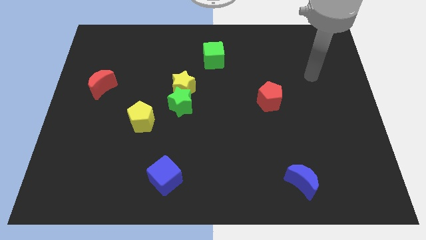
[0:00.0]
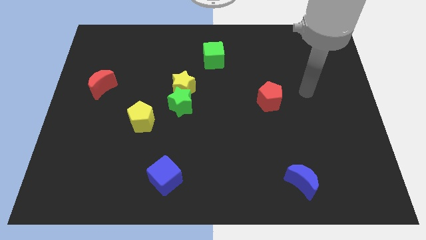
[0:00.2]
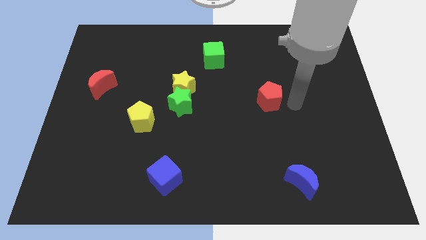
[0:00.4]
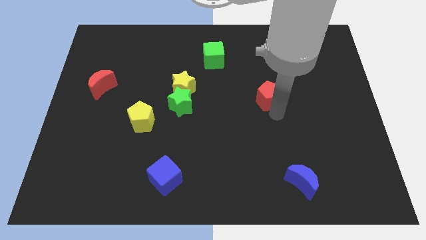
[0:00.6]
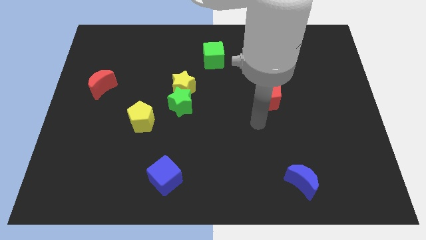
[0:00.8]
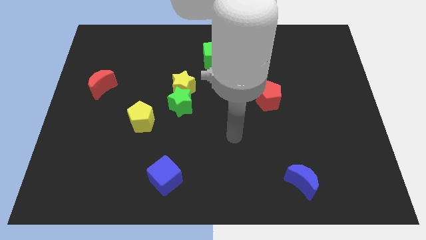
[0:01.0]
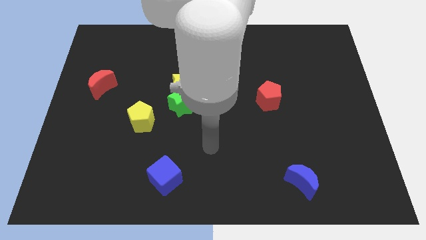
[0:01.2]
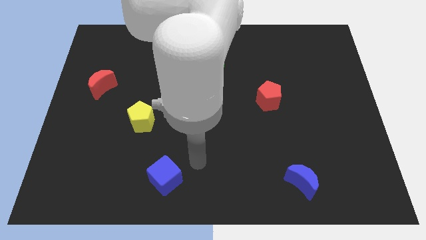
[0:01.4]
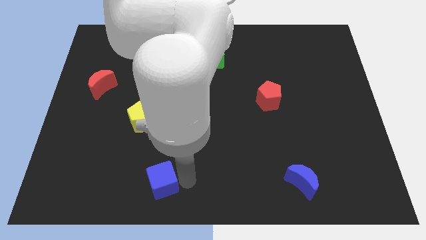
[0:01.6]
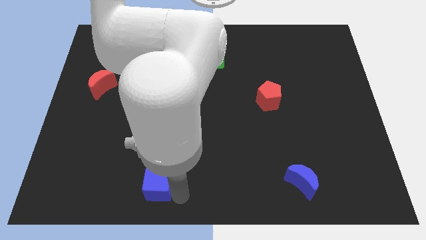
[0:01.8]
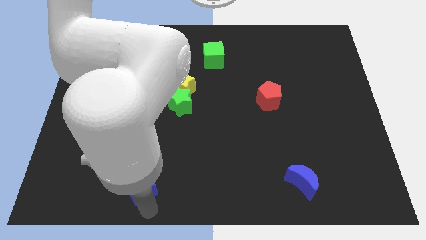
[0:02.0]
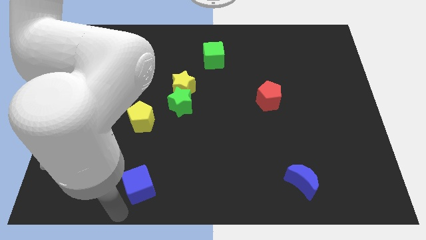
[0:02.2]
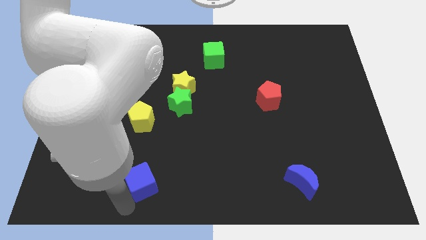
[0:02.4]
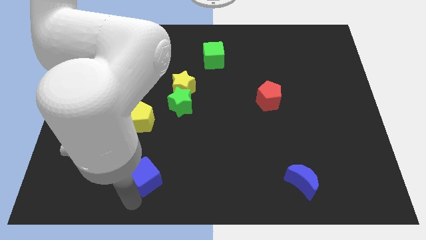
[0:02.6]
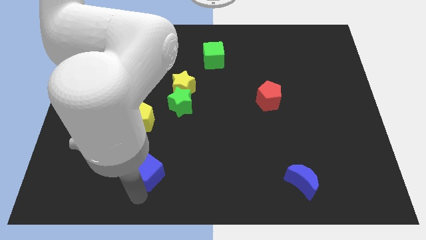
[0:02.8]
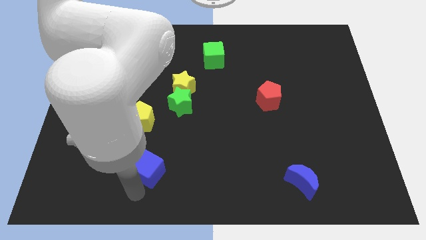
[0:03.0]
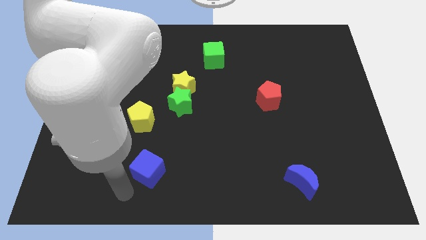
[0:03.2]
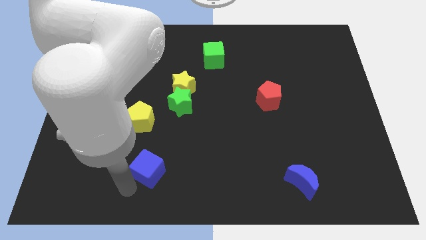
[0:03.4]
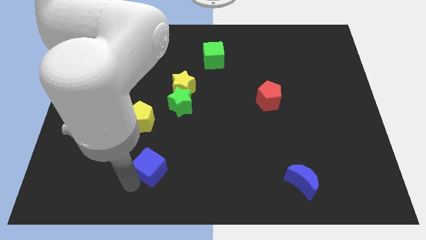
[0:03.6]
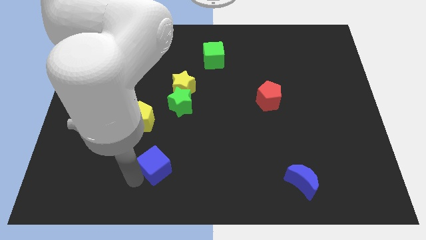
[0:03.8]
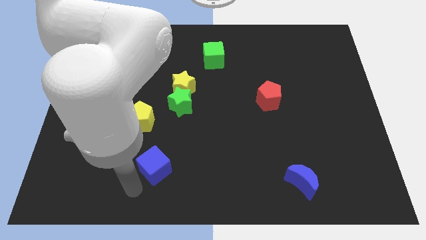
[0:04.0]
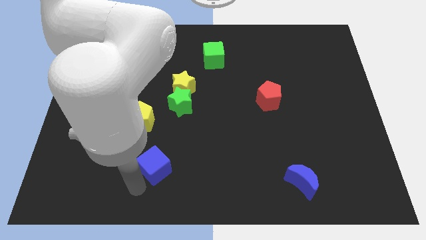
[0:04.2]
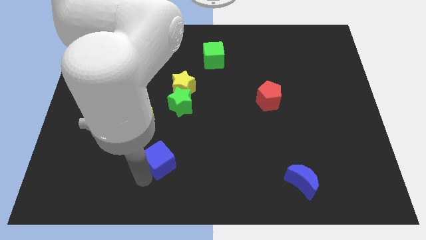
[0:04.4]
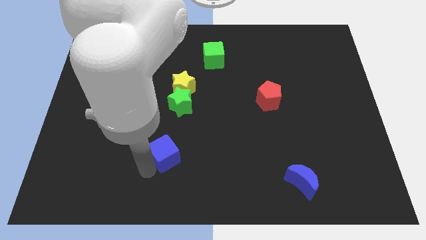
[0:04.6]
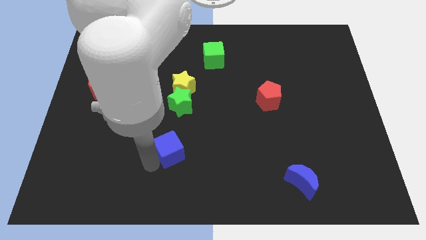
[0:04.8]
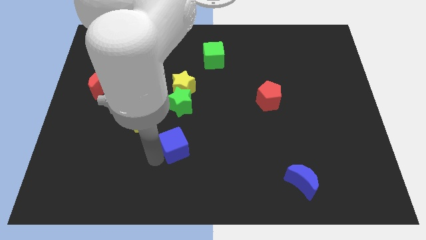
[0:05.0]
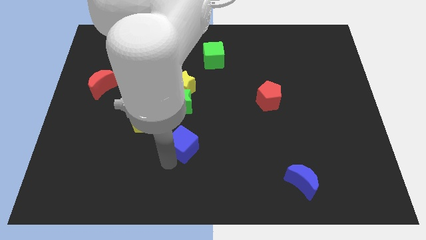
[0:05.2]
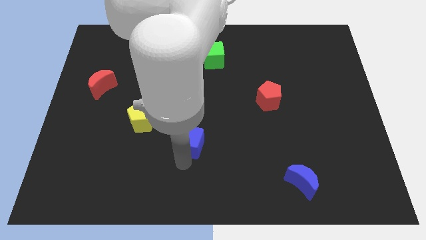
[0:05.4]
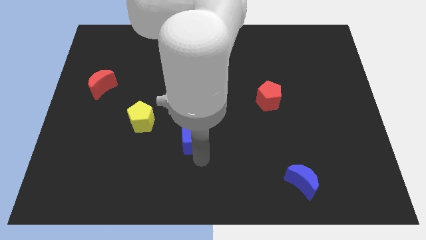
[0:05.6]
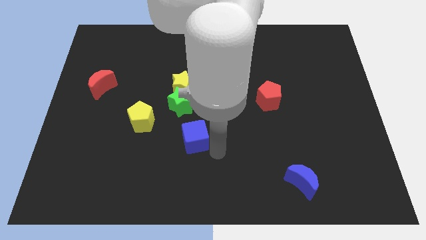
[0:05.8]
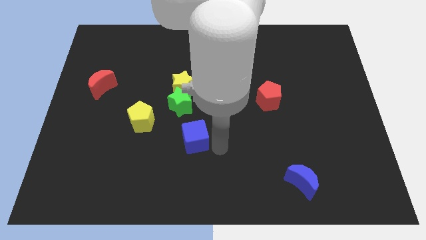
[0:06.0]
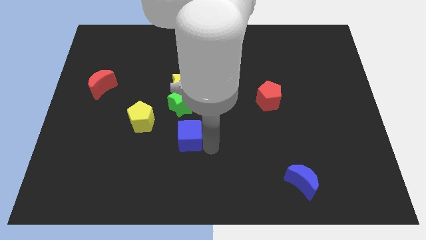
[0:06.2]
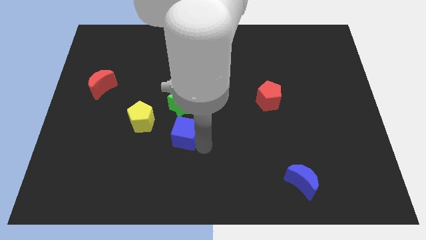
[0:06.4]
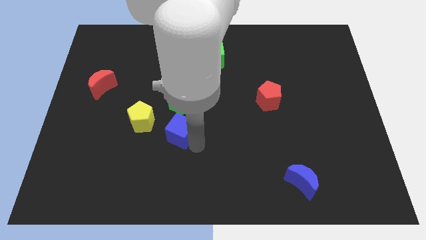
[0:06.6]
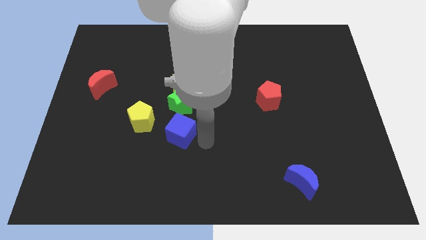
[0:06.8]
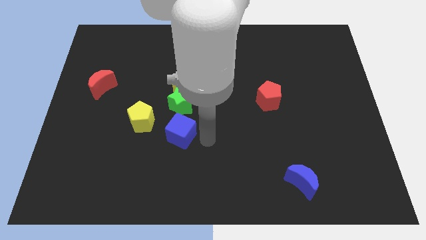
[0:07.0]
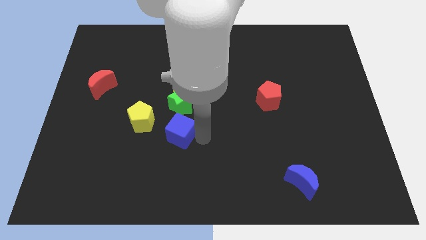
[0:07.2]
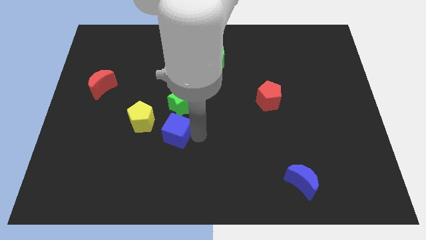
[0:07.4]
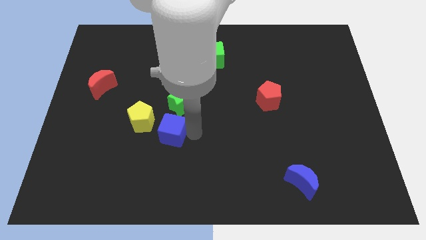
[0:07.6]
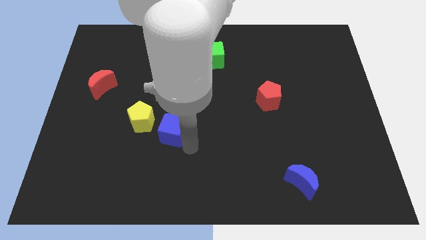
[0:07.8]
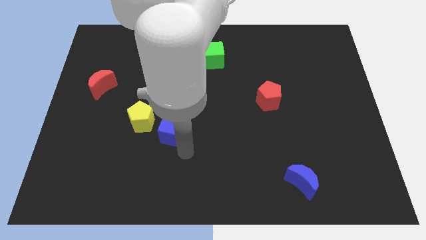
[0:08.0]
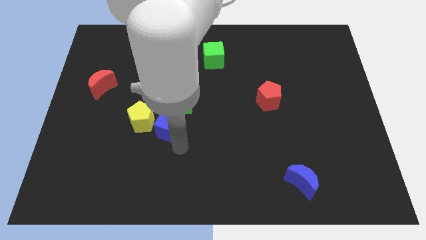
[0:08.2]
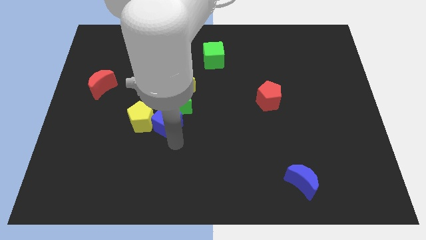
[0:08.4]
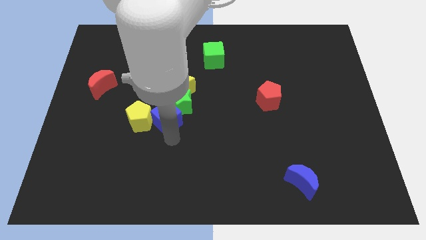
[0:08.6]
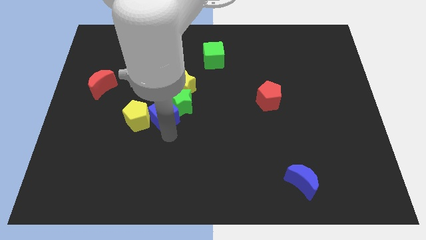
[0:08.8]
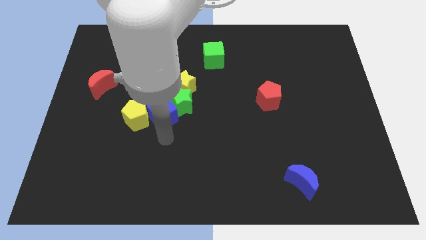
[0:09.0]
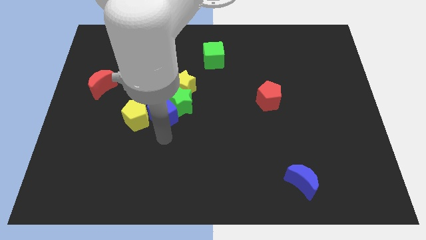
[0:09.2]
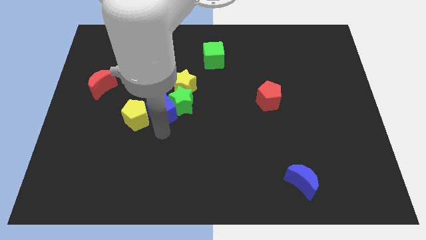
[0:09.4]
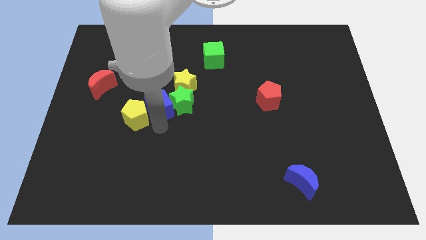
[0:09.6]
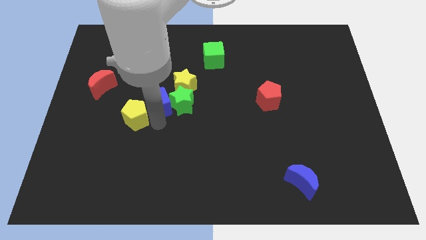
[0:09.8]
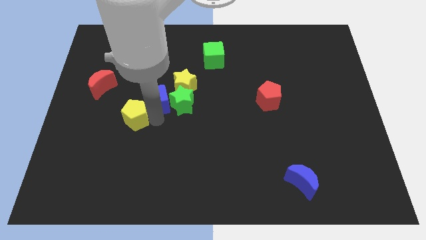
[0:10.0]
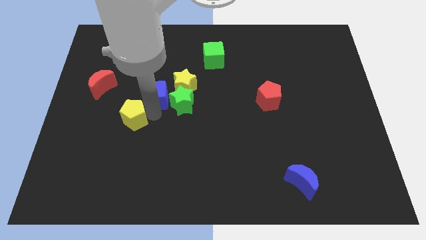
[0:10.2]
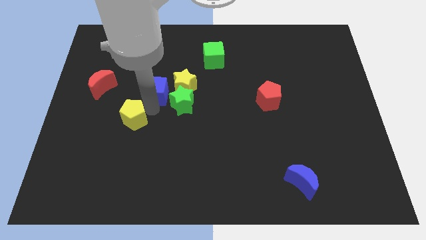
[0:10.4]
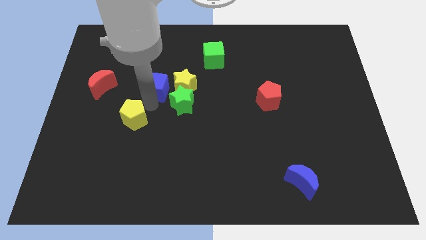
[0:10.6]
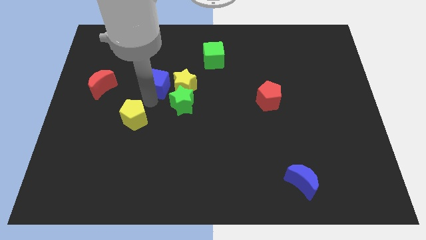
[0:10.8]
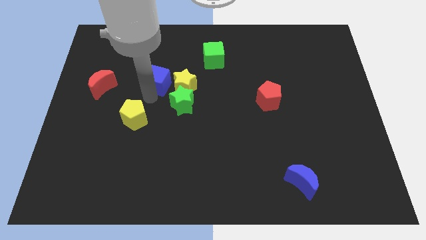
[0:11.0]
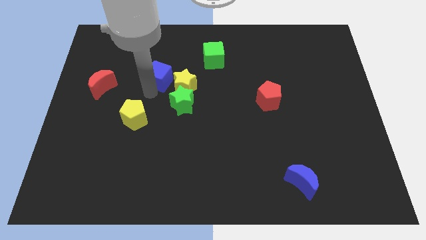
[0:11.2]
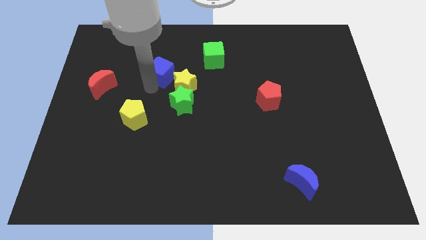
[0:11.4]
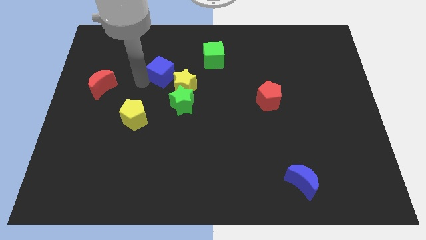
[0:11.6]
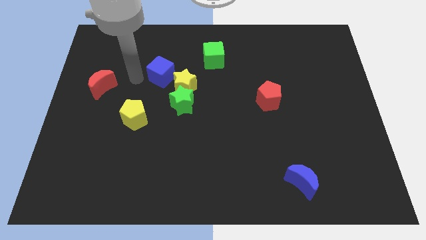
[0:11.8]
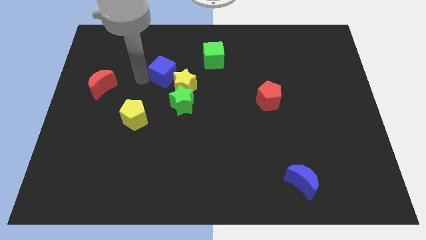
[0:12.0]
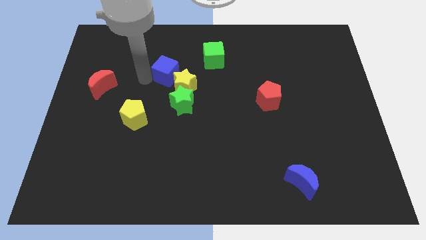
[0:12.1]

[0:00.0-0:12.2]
slide the blue cube to the top side of the green star

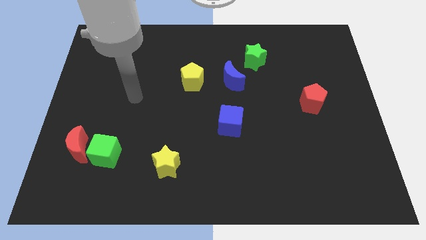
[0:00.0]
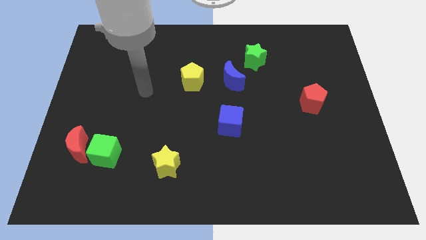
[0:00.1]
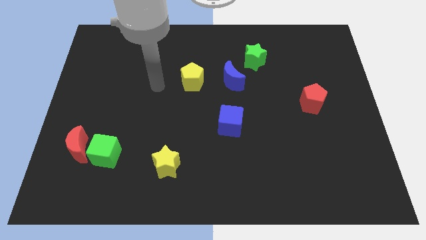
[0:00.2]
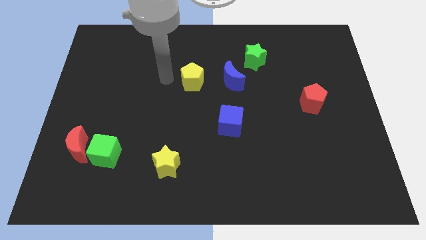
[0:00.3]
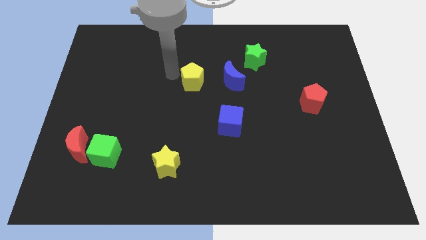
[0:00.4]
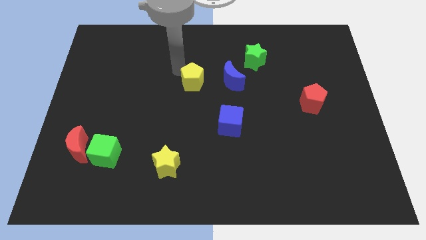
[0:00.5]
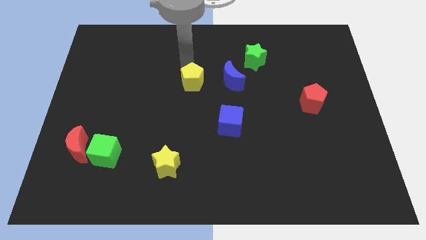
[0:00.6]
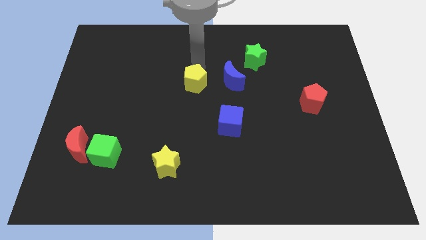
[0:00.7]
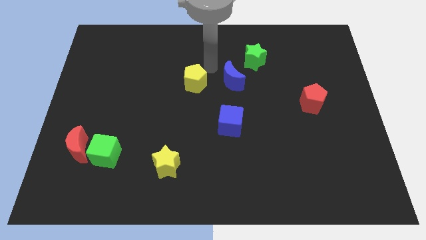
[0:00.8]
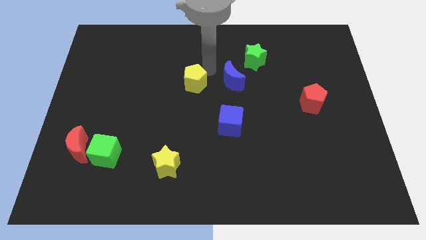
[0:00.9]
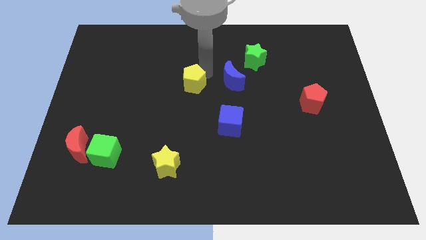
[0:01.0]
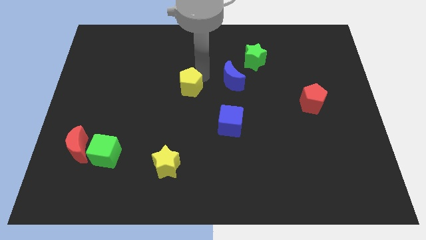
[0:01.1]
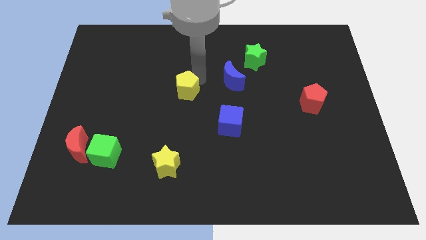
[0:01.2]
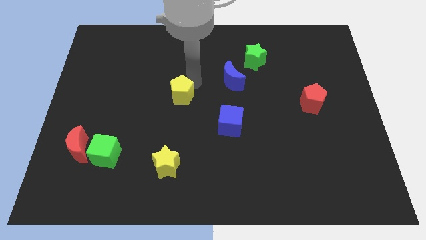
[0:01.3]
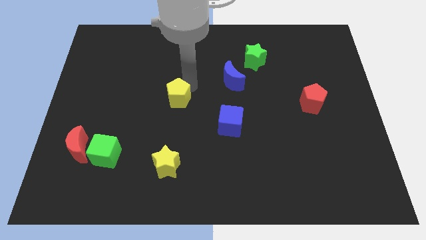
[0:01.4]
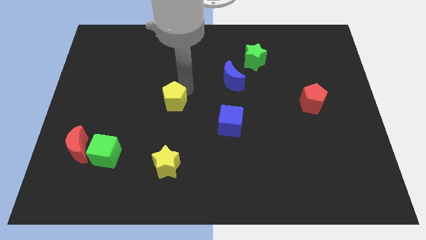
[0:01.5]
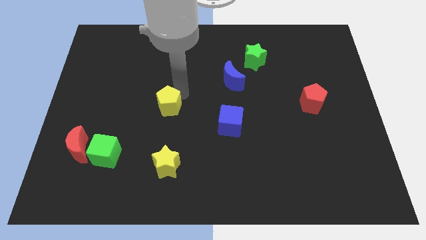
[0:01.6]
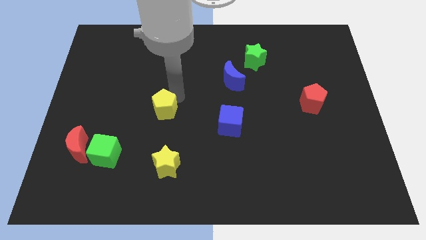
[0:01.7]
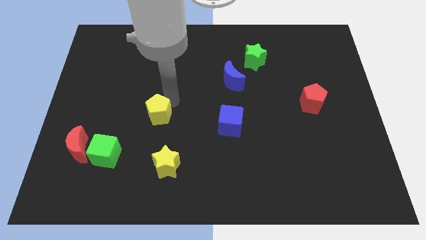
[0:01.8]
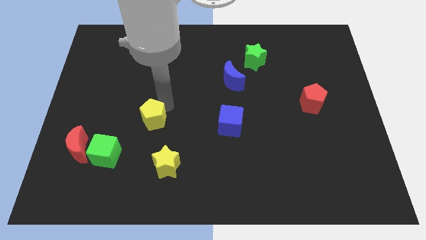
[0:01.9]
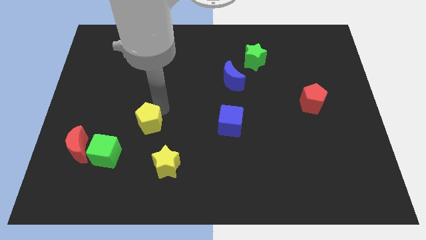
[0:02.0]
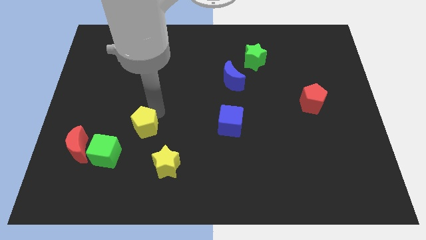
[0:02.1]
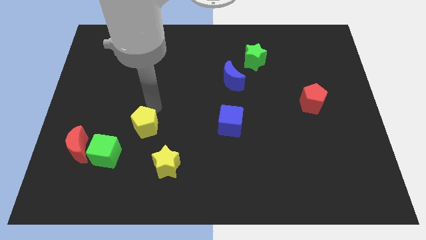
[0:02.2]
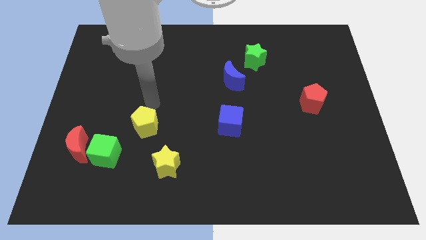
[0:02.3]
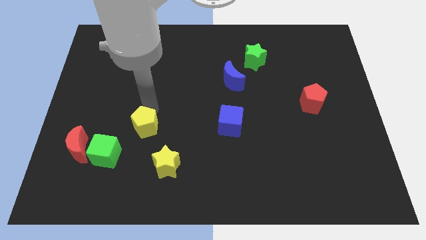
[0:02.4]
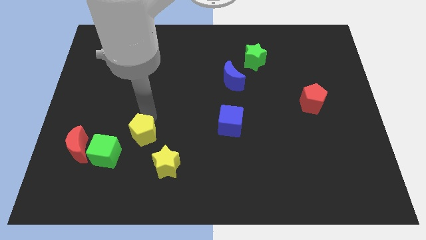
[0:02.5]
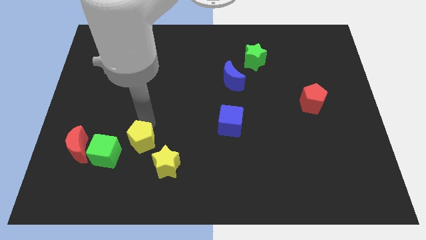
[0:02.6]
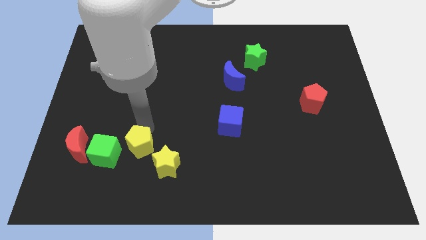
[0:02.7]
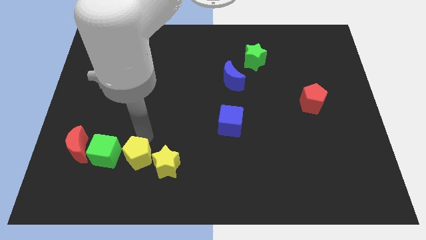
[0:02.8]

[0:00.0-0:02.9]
put the yellow pentagon to the bottom right side of the green cube
